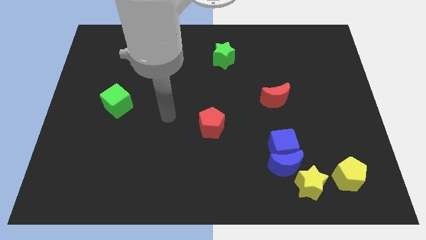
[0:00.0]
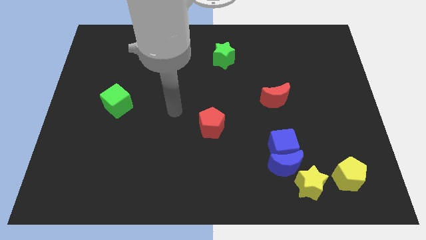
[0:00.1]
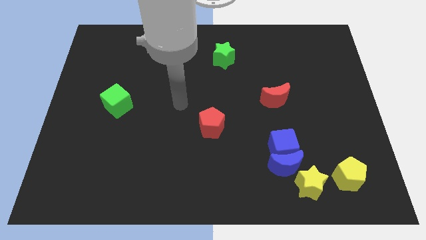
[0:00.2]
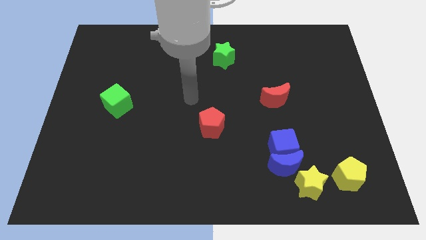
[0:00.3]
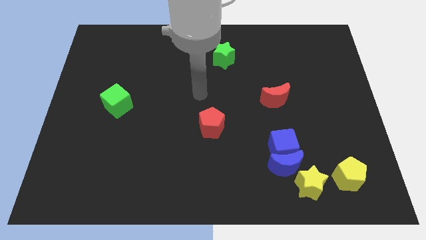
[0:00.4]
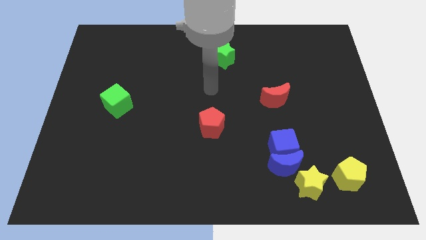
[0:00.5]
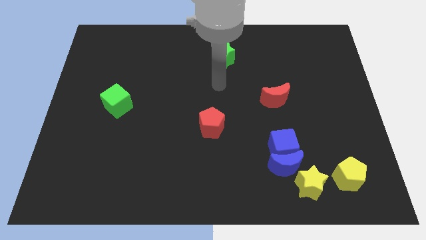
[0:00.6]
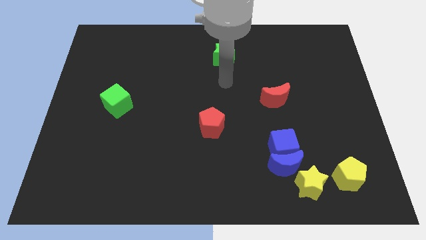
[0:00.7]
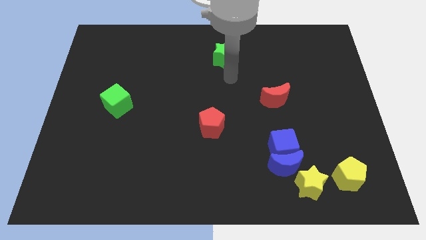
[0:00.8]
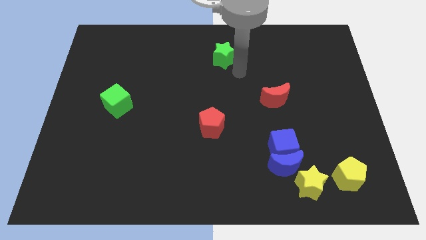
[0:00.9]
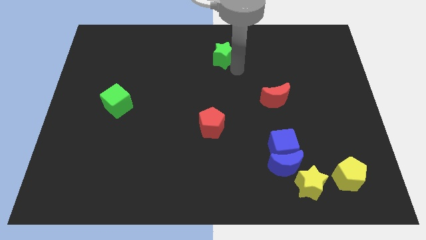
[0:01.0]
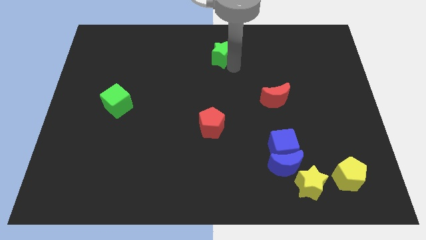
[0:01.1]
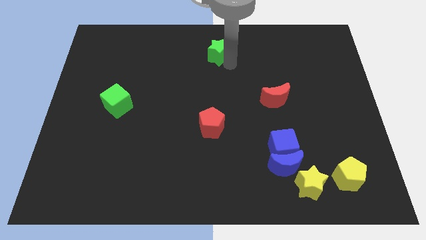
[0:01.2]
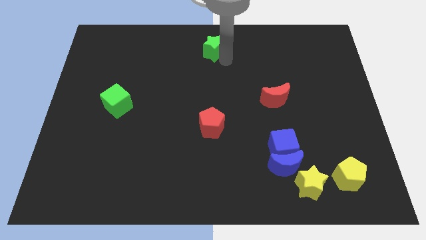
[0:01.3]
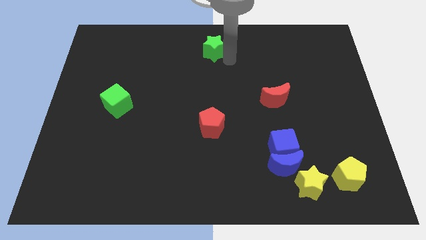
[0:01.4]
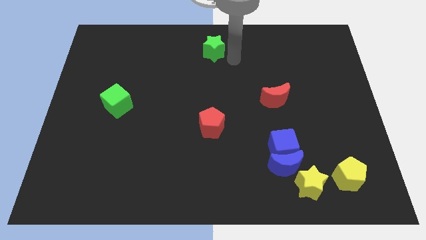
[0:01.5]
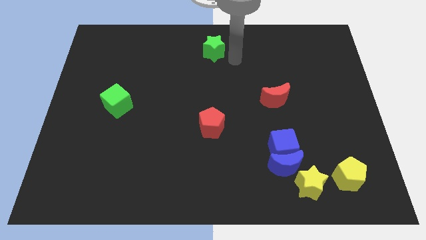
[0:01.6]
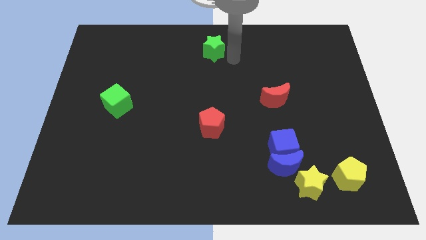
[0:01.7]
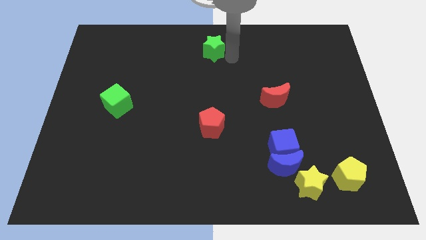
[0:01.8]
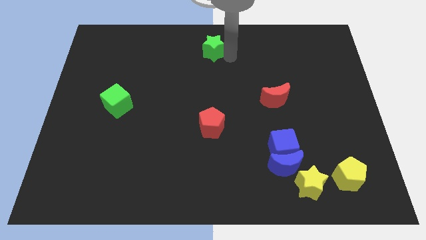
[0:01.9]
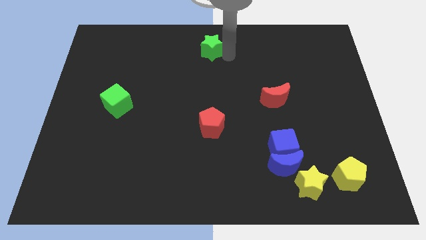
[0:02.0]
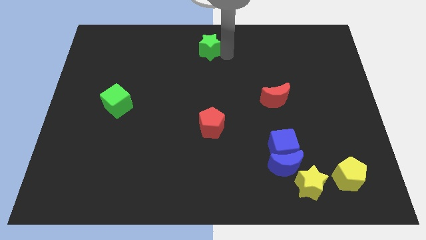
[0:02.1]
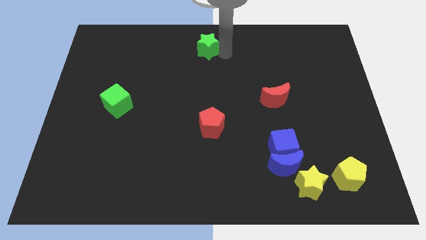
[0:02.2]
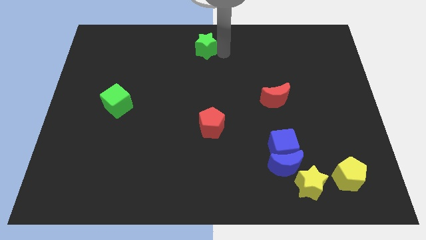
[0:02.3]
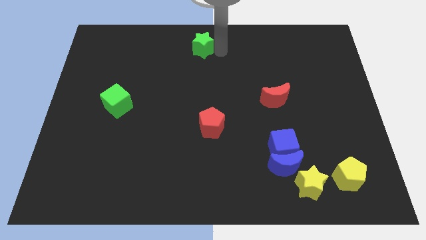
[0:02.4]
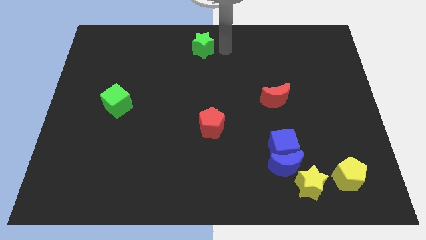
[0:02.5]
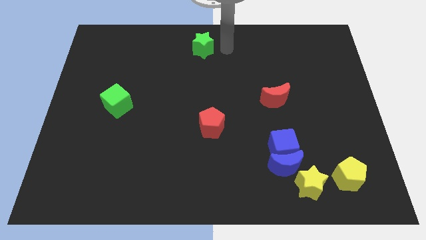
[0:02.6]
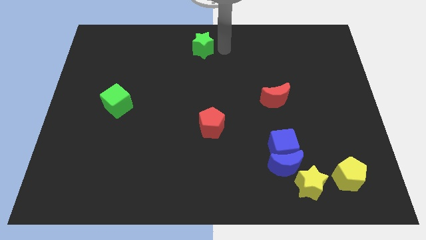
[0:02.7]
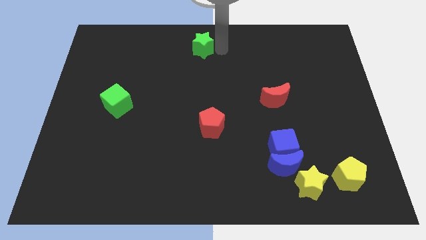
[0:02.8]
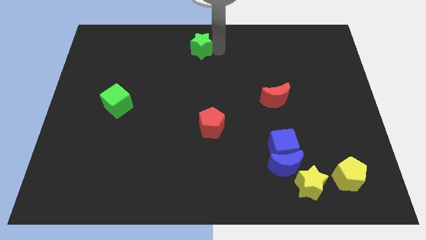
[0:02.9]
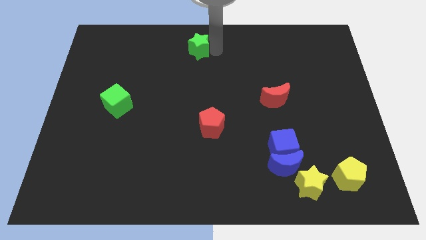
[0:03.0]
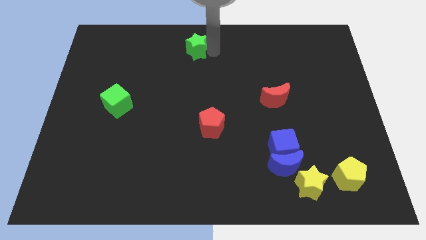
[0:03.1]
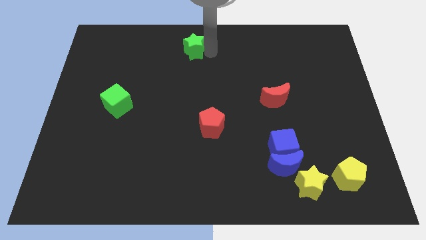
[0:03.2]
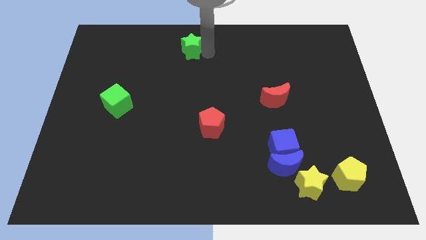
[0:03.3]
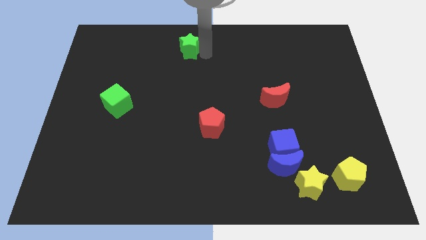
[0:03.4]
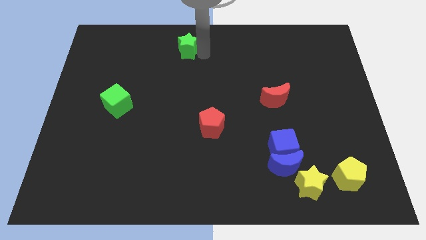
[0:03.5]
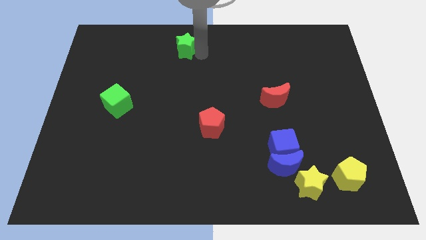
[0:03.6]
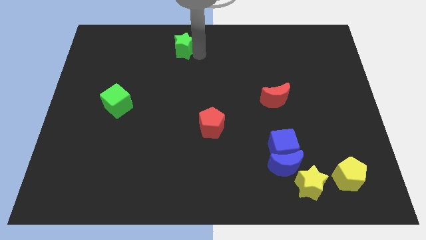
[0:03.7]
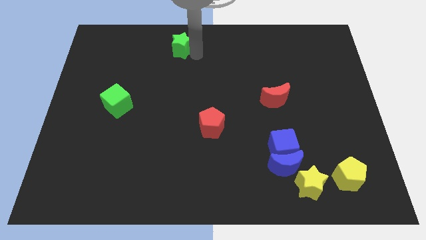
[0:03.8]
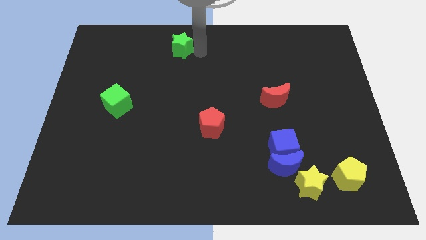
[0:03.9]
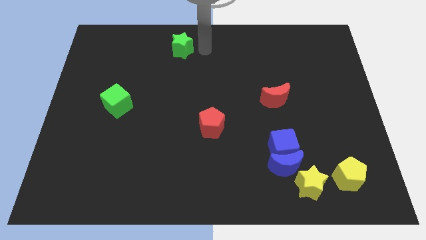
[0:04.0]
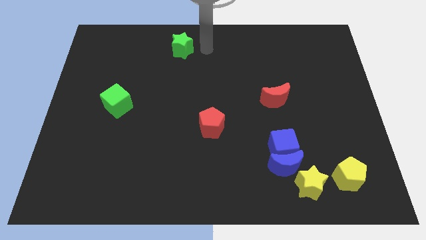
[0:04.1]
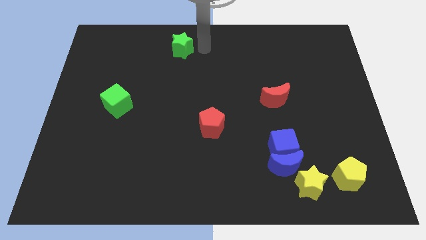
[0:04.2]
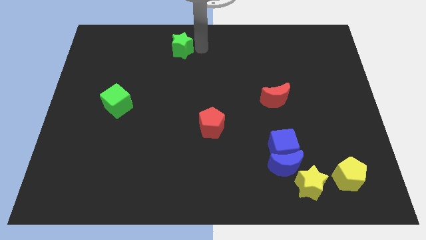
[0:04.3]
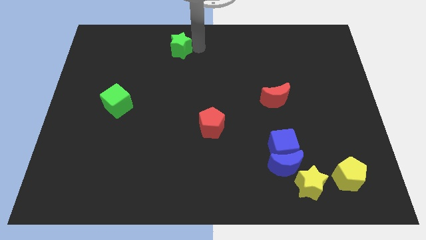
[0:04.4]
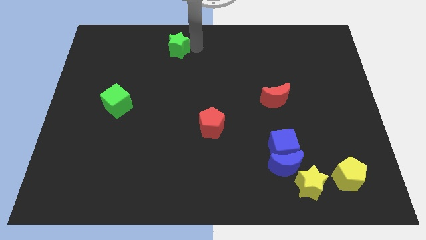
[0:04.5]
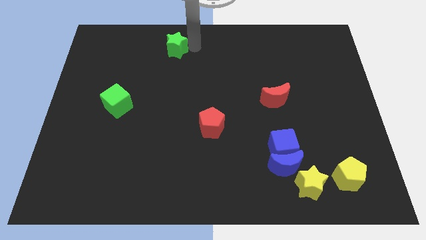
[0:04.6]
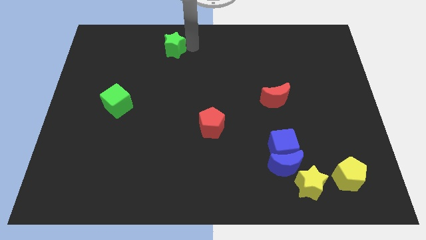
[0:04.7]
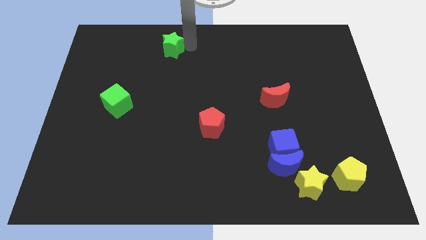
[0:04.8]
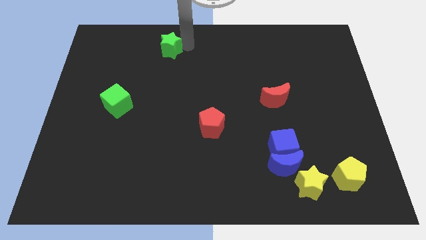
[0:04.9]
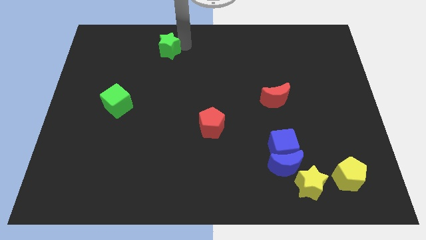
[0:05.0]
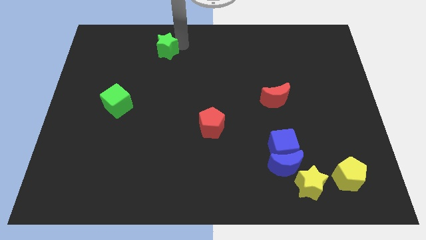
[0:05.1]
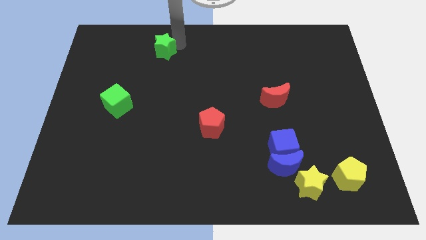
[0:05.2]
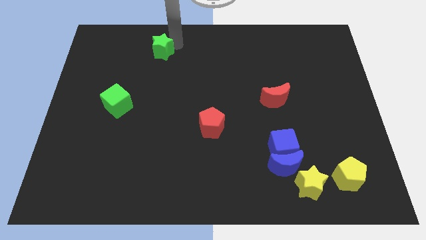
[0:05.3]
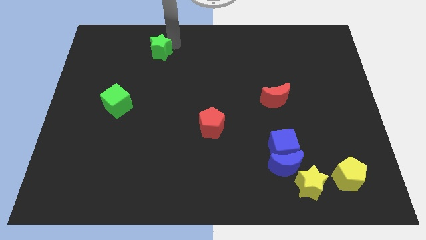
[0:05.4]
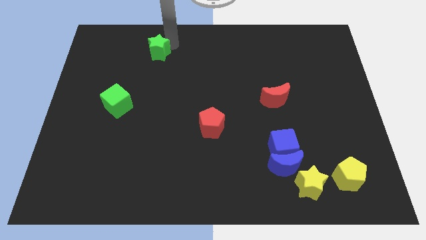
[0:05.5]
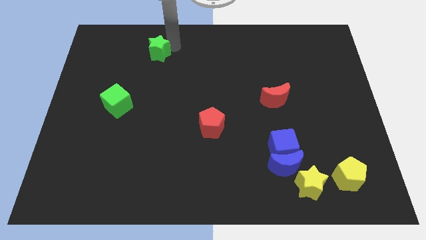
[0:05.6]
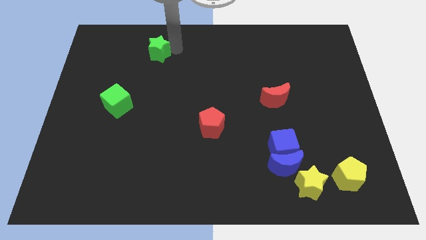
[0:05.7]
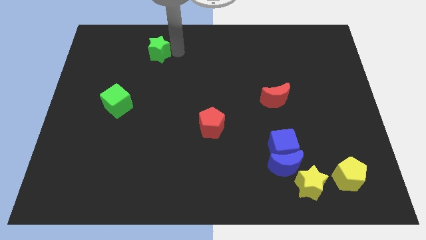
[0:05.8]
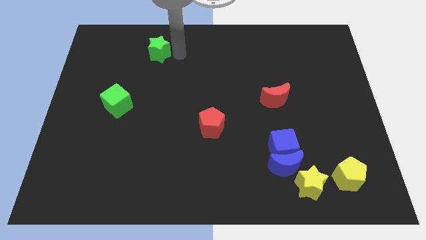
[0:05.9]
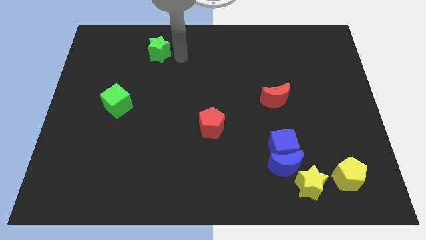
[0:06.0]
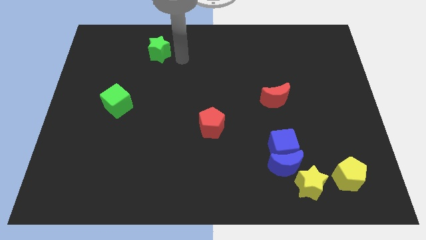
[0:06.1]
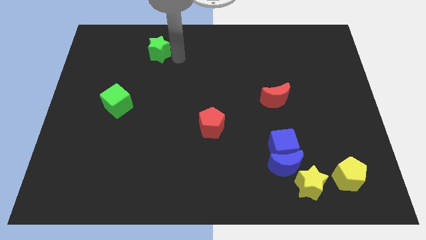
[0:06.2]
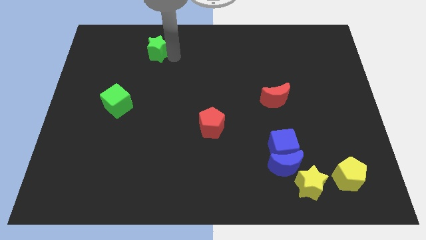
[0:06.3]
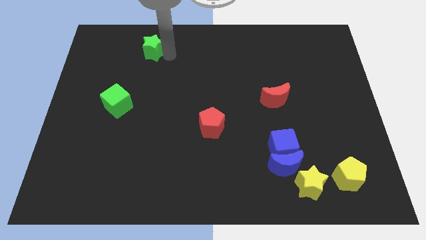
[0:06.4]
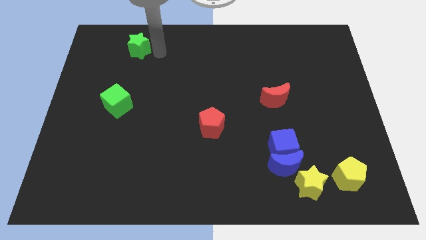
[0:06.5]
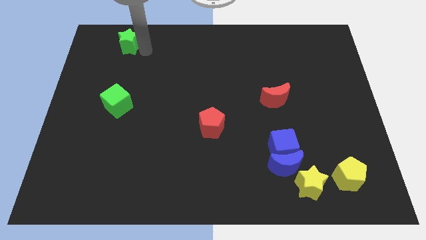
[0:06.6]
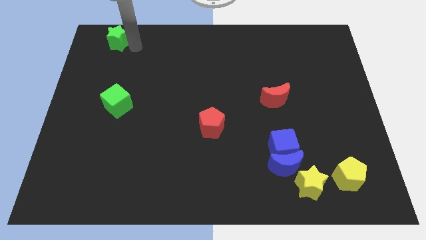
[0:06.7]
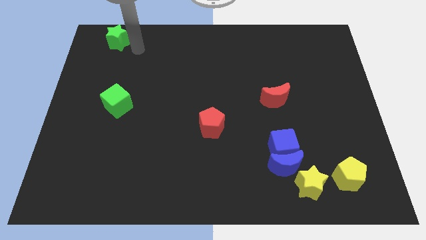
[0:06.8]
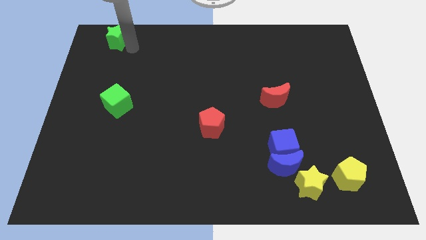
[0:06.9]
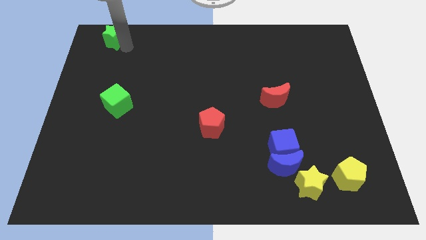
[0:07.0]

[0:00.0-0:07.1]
push the green star to the top left
